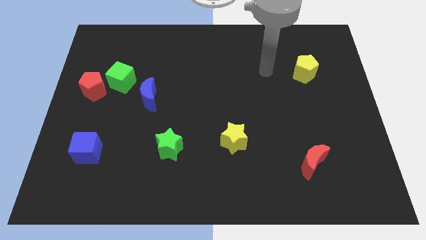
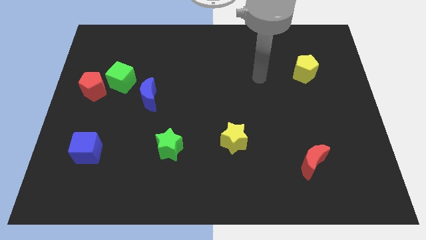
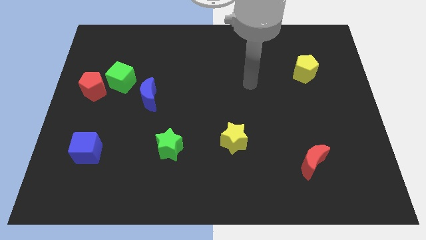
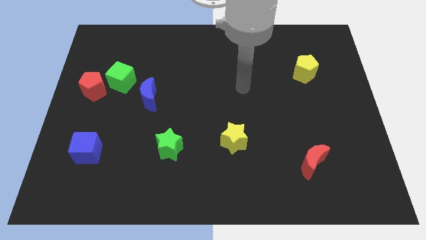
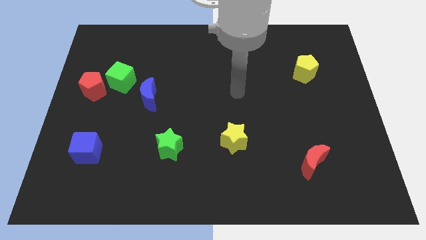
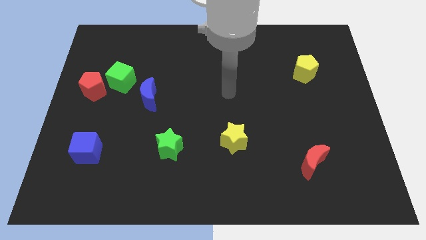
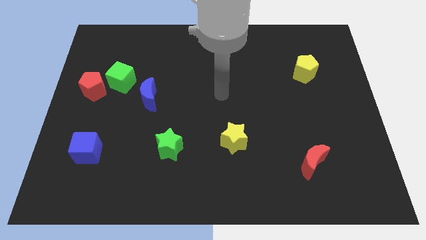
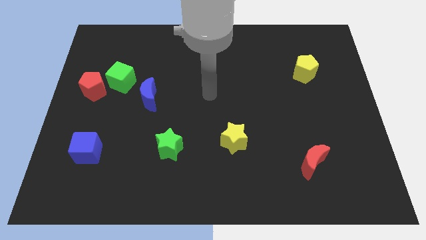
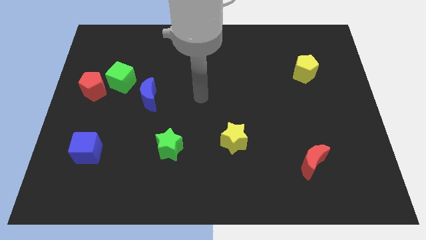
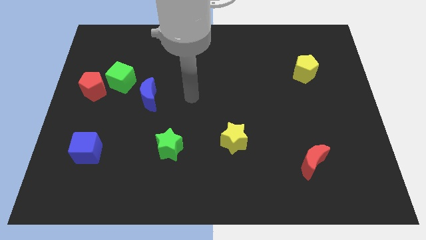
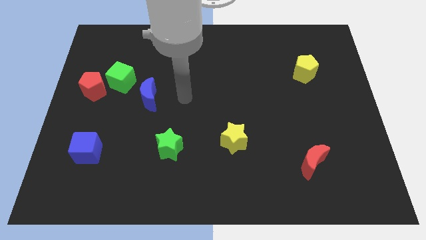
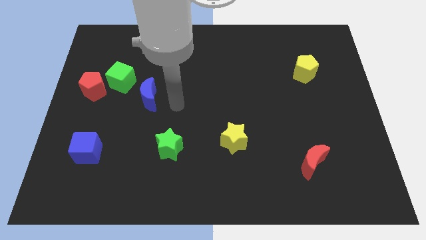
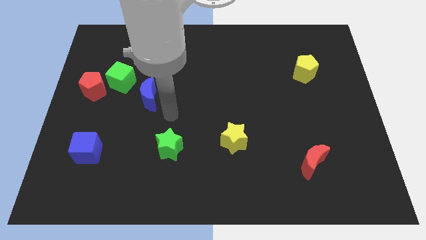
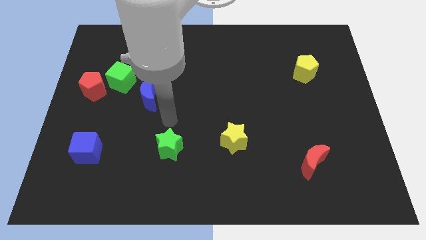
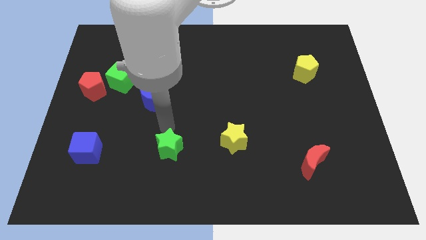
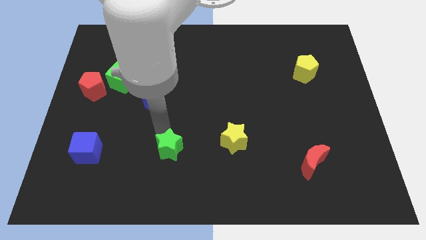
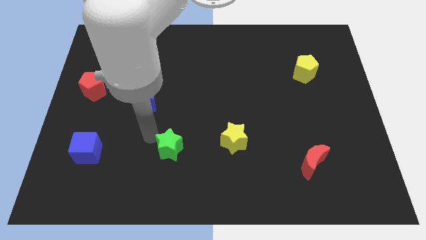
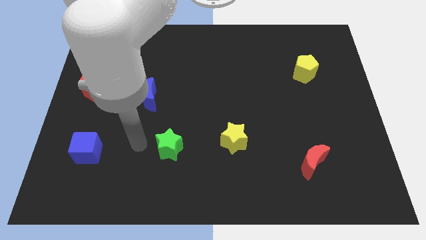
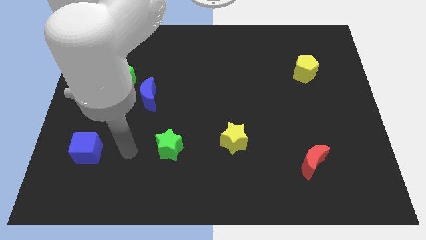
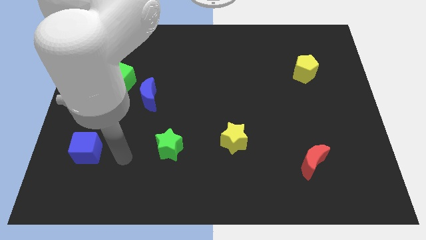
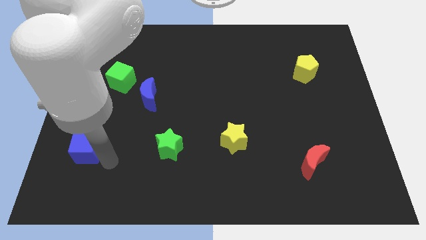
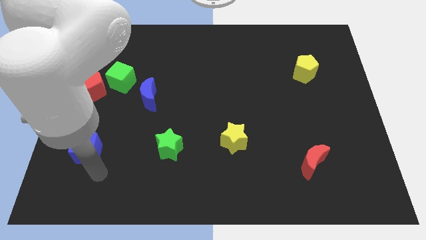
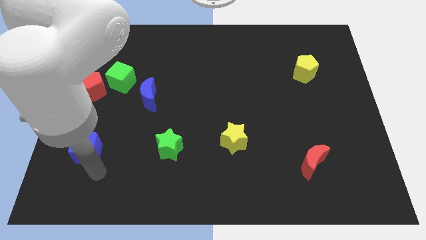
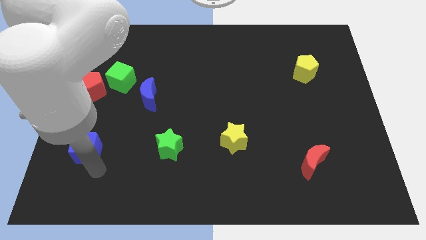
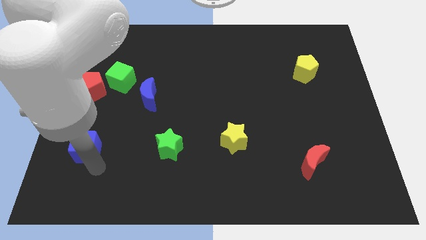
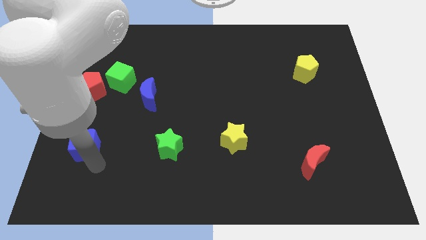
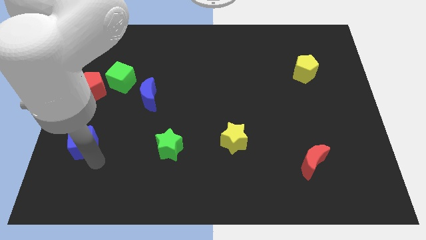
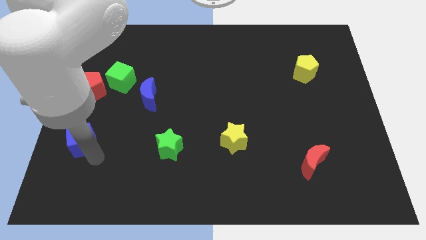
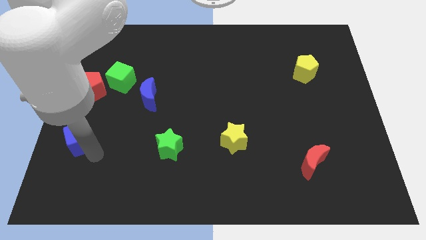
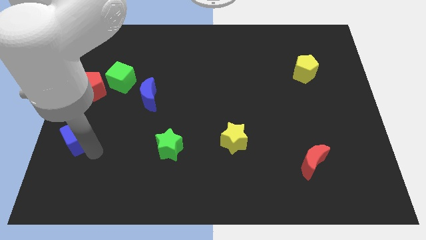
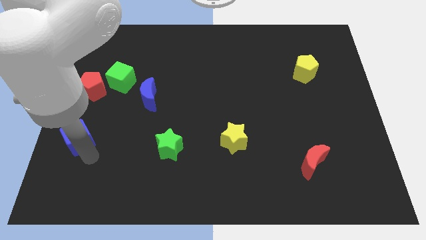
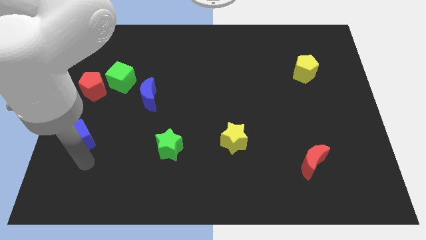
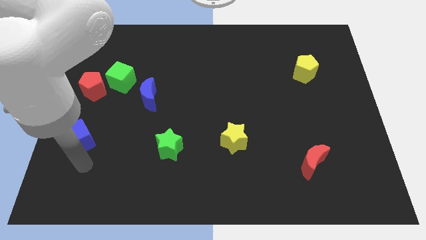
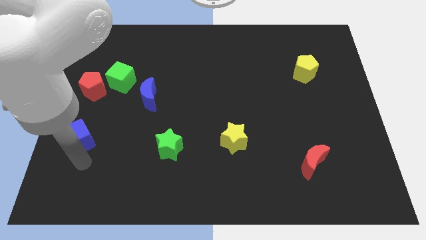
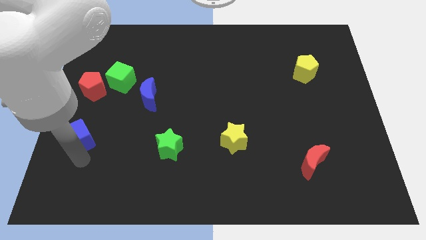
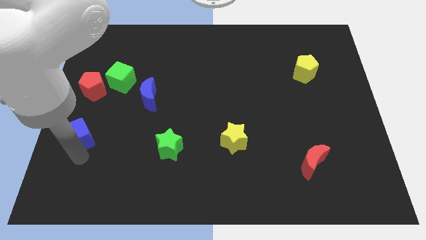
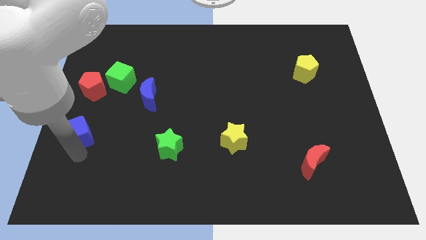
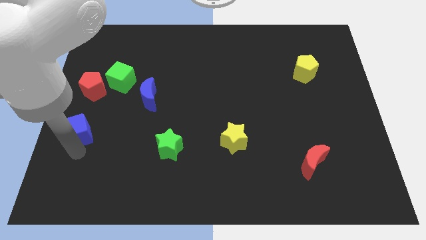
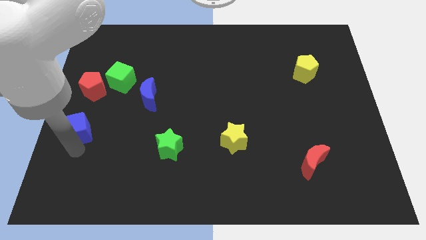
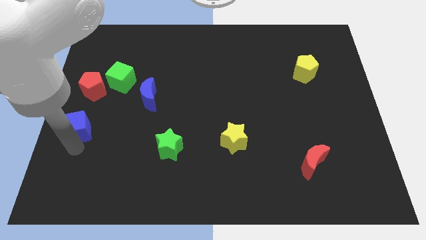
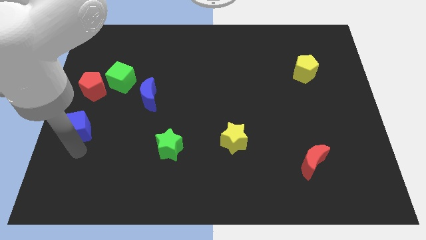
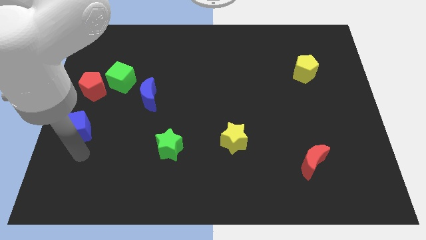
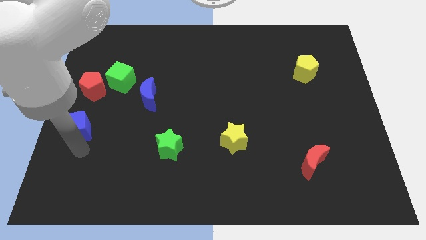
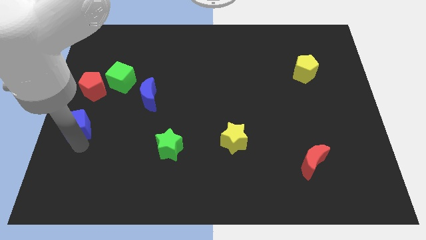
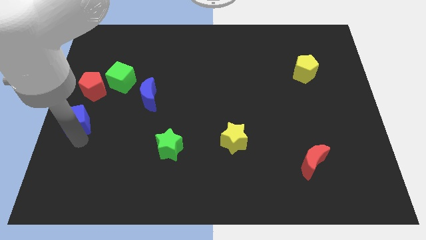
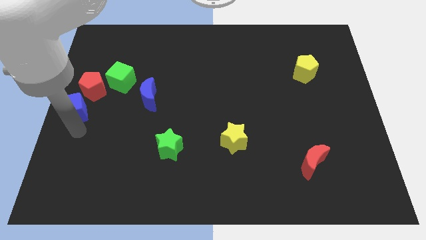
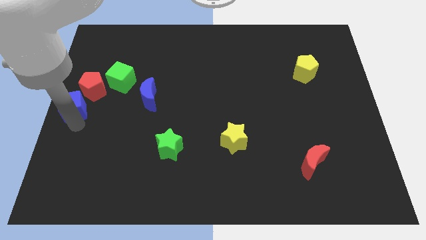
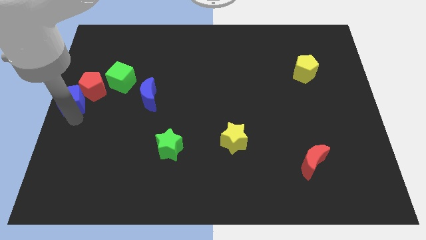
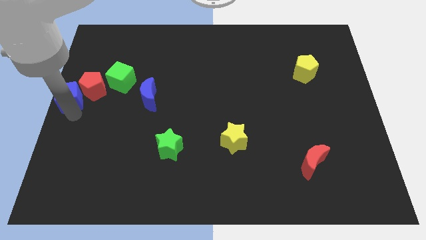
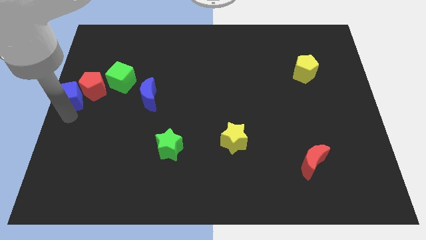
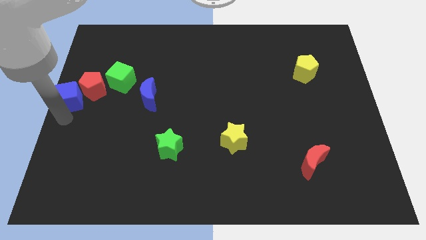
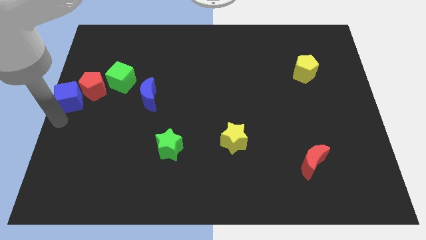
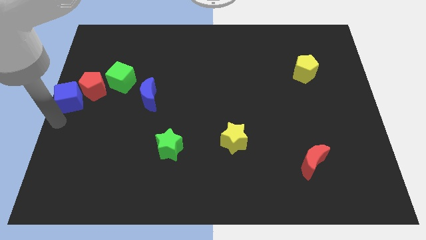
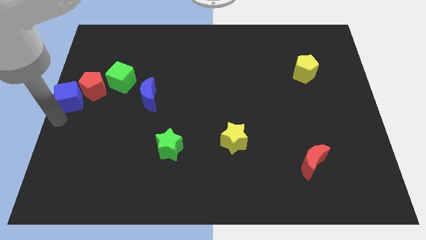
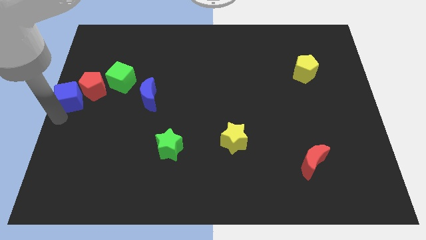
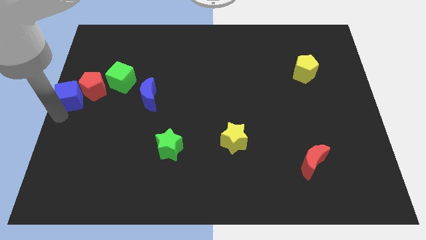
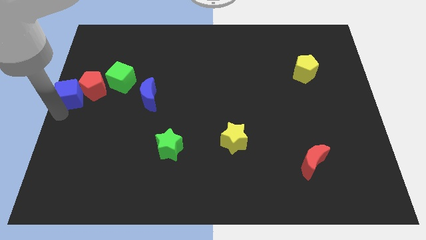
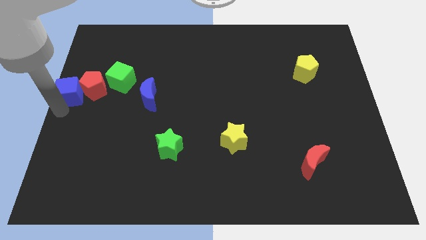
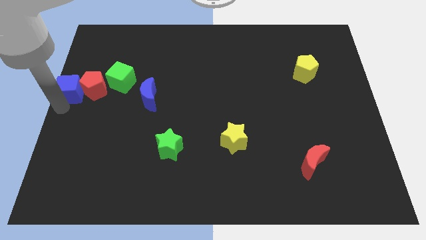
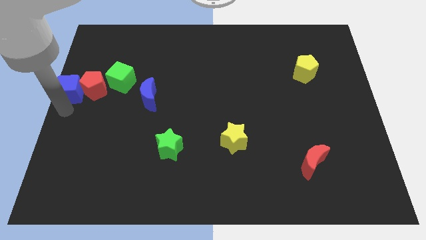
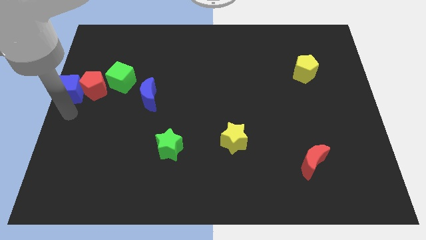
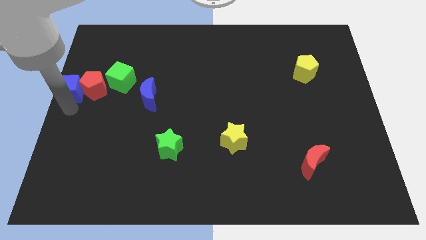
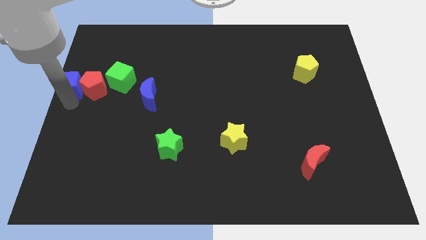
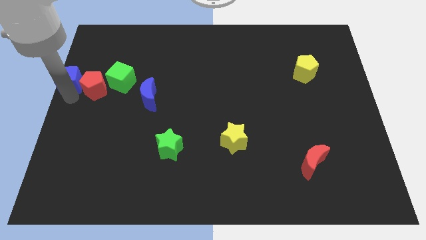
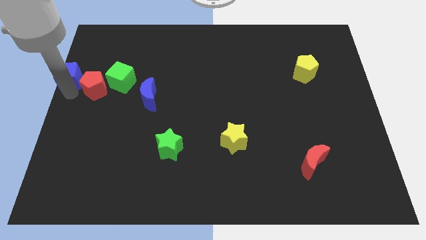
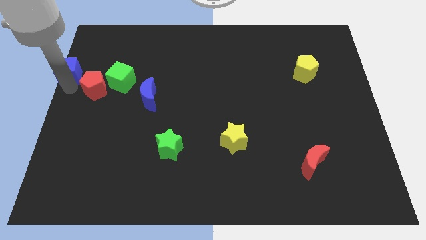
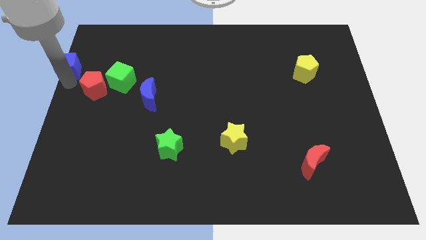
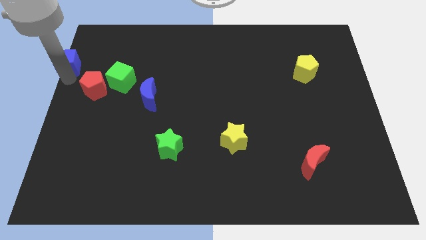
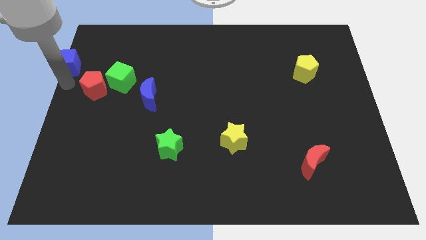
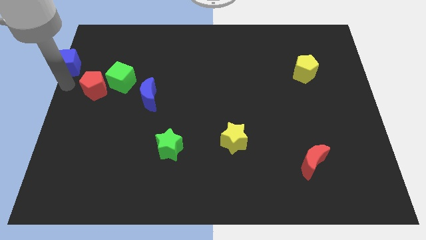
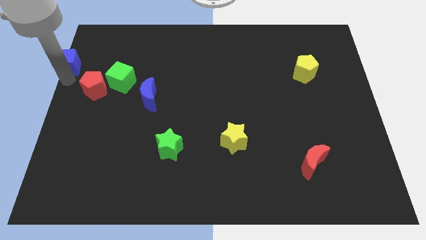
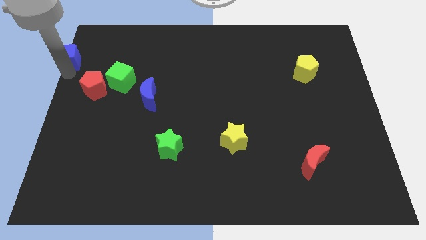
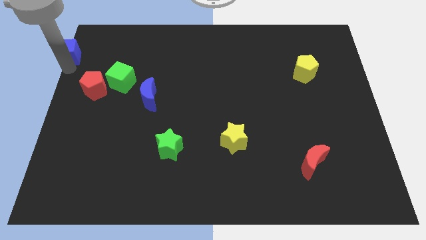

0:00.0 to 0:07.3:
put the blue cube to the top left

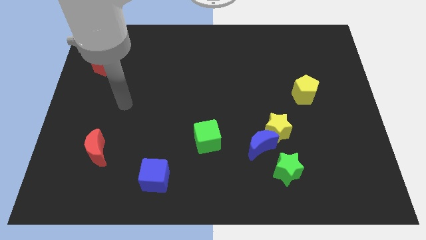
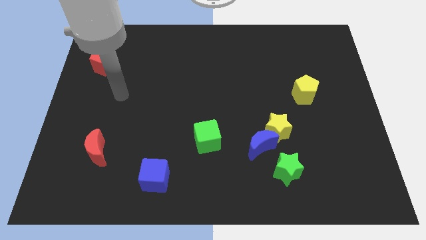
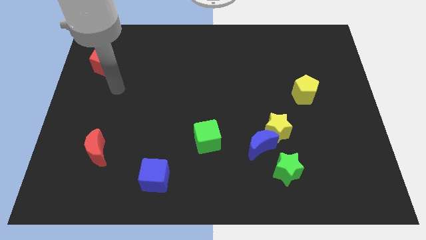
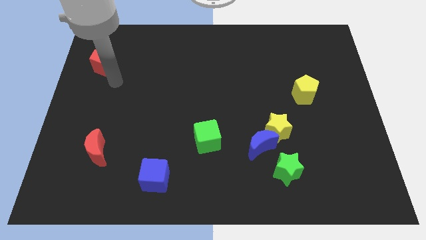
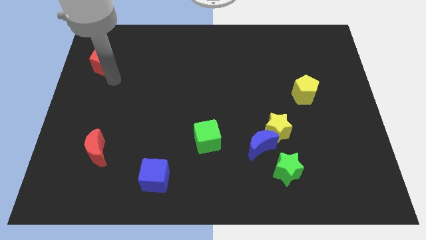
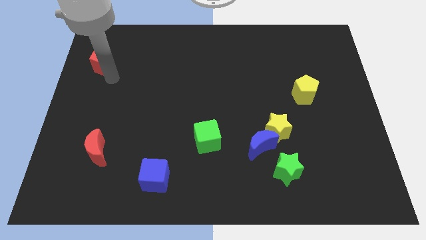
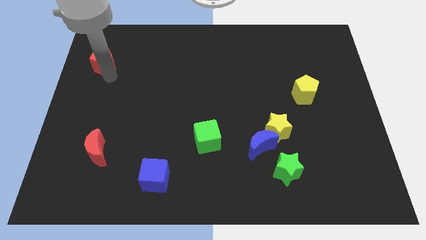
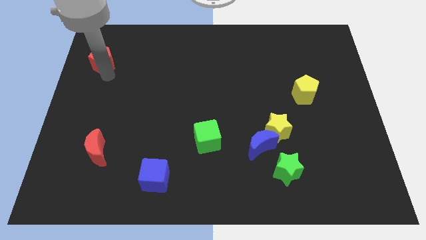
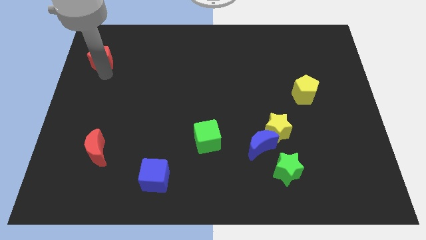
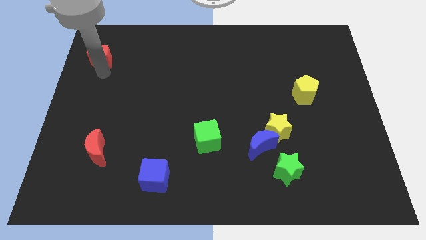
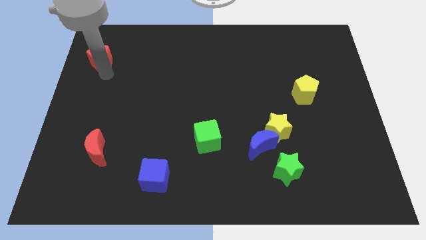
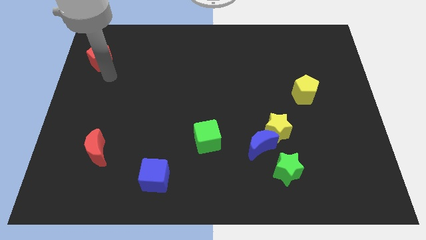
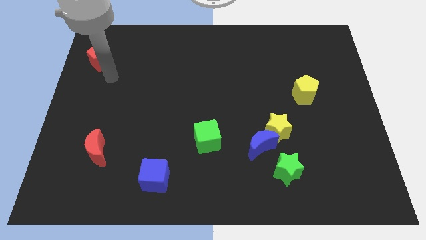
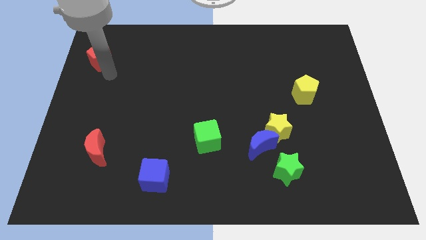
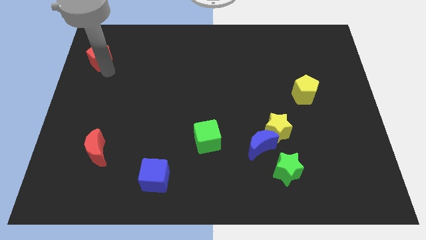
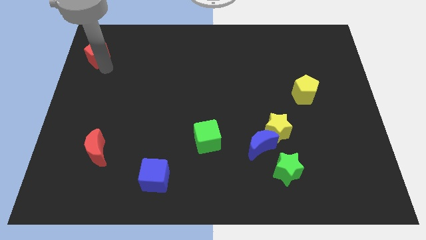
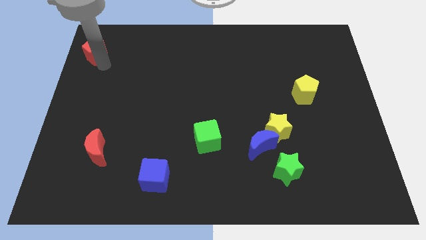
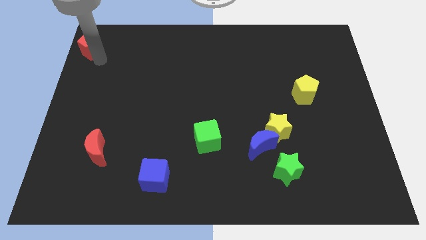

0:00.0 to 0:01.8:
slide the red pentagon to the top left of the board
